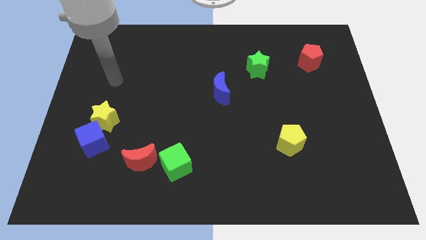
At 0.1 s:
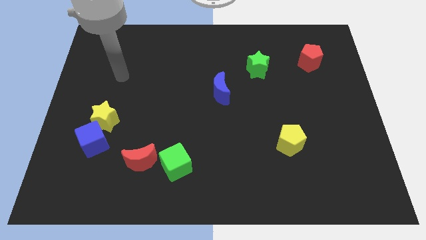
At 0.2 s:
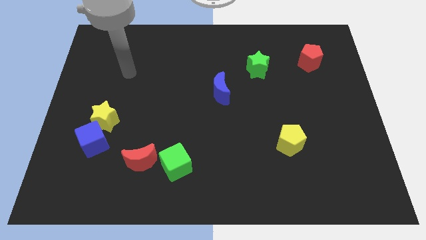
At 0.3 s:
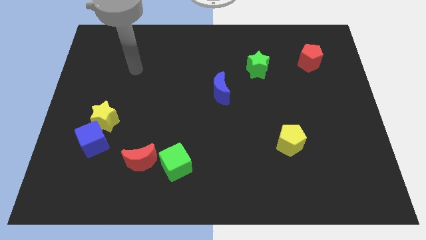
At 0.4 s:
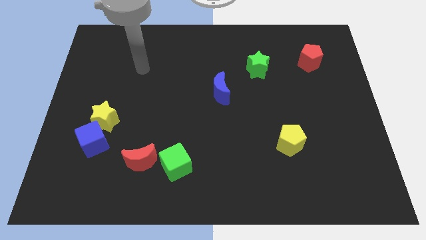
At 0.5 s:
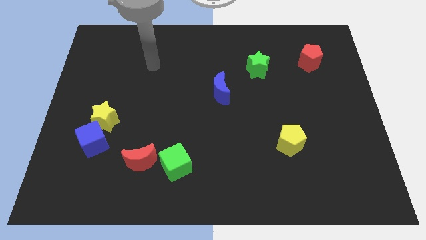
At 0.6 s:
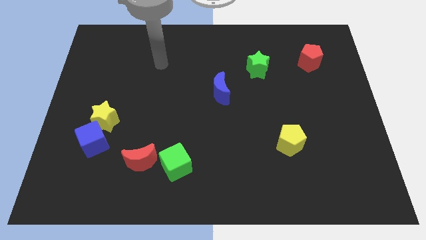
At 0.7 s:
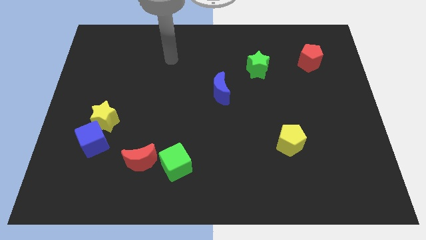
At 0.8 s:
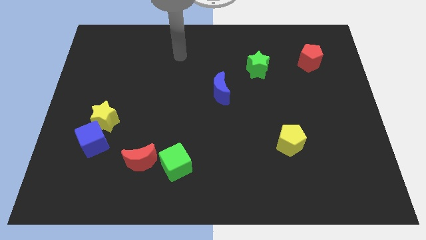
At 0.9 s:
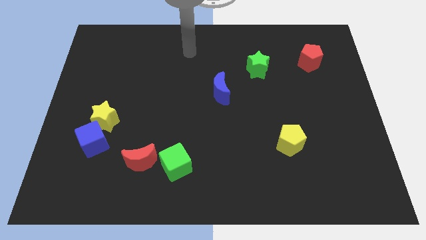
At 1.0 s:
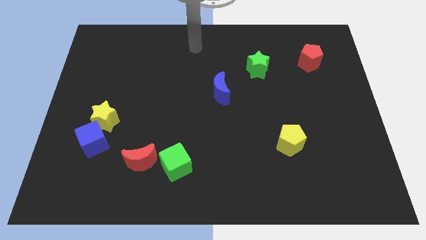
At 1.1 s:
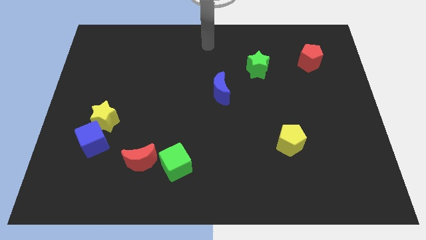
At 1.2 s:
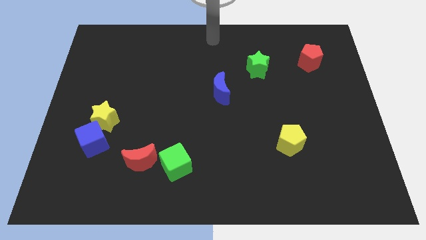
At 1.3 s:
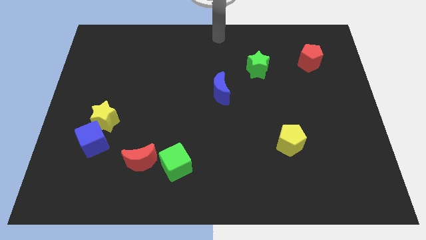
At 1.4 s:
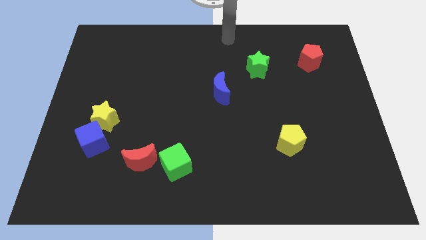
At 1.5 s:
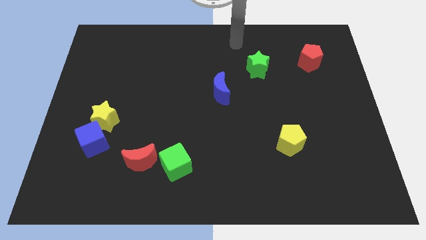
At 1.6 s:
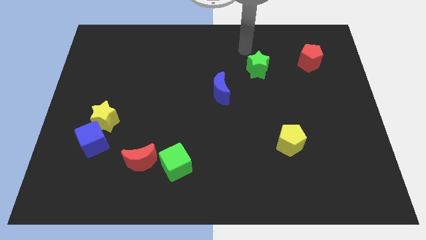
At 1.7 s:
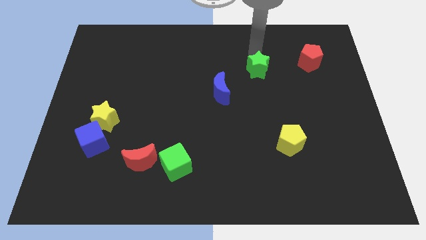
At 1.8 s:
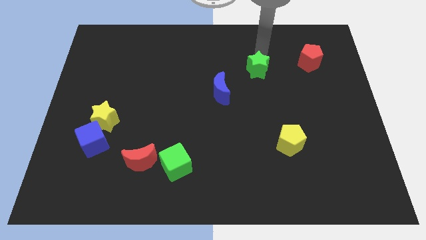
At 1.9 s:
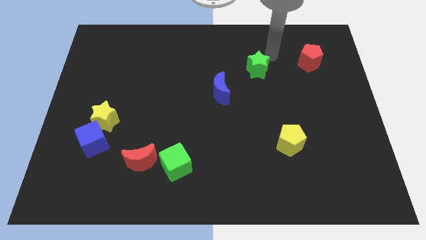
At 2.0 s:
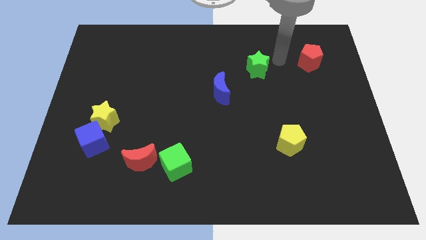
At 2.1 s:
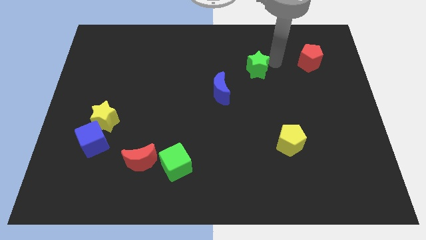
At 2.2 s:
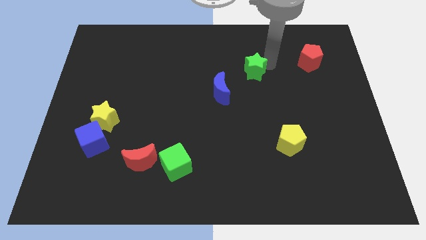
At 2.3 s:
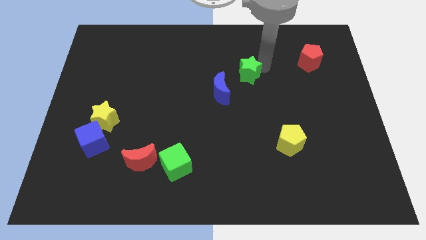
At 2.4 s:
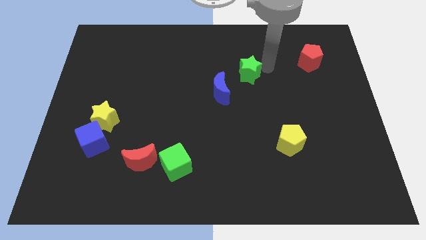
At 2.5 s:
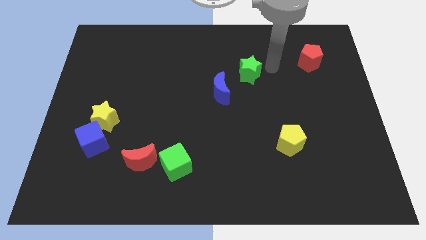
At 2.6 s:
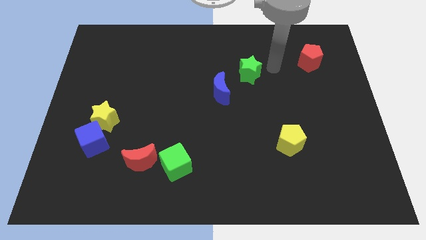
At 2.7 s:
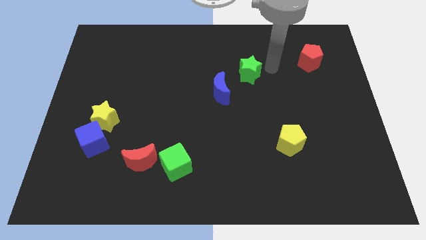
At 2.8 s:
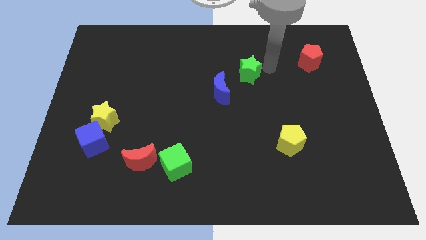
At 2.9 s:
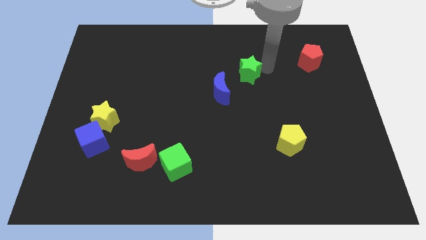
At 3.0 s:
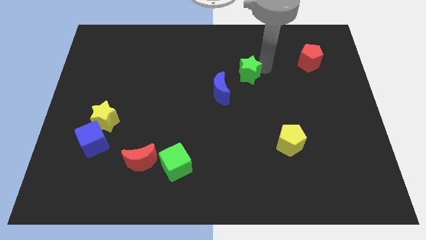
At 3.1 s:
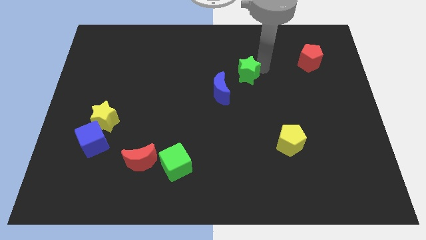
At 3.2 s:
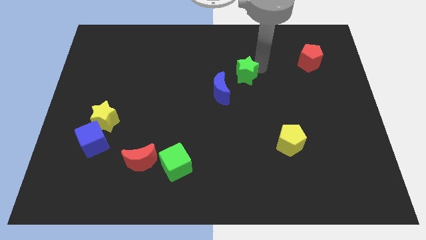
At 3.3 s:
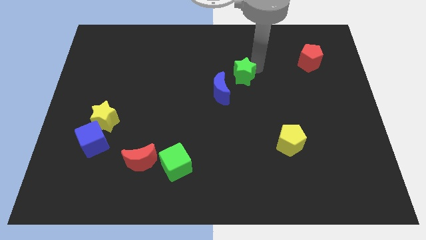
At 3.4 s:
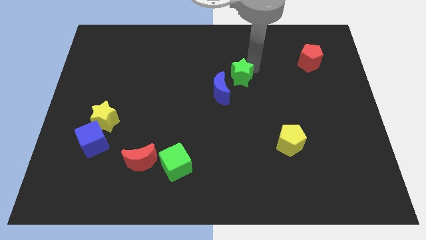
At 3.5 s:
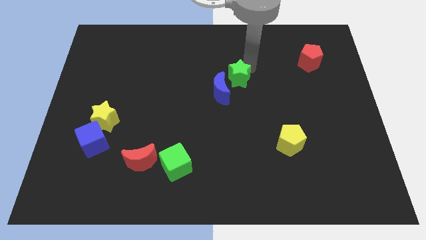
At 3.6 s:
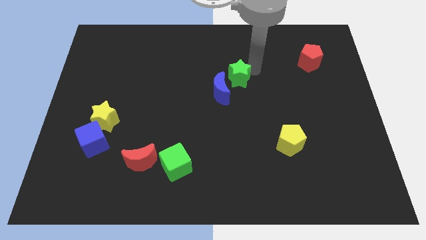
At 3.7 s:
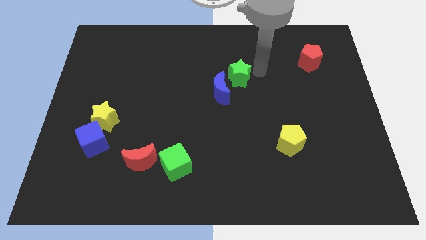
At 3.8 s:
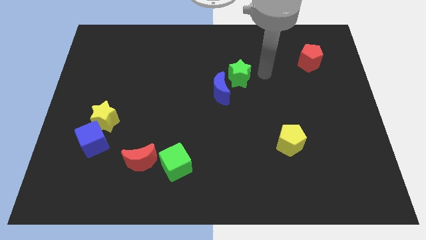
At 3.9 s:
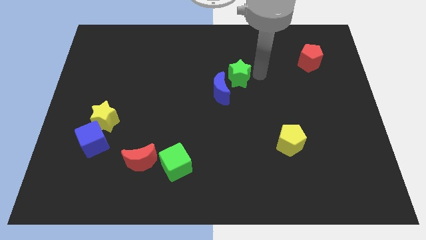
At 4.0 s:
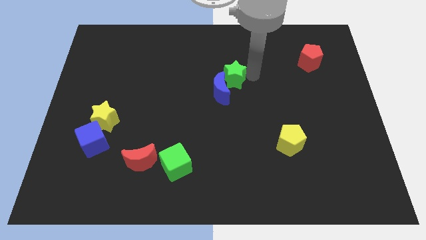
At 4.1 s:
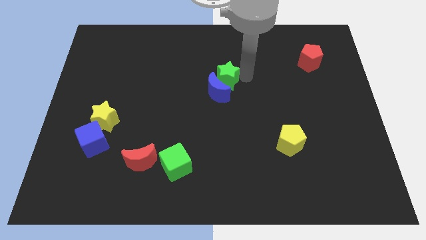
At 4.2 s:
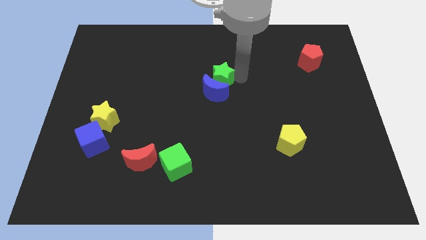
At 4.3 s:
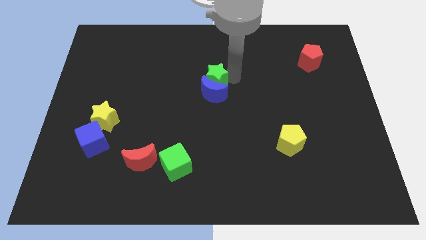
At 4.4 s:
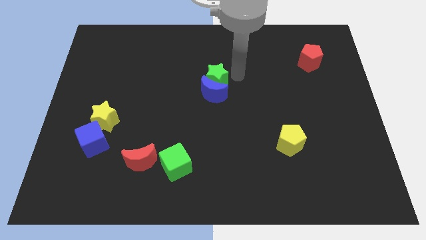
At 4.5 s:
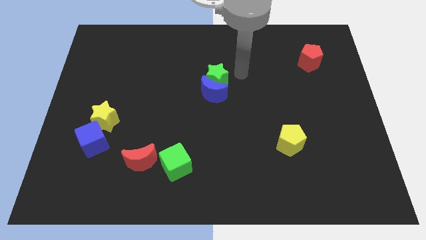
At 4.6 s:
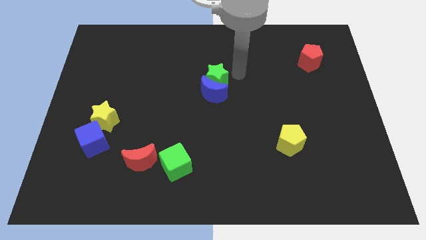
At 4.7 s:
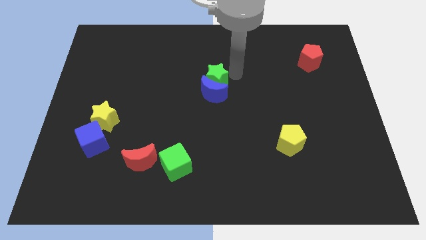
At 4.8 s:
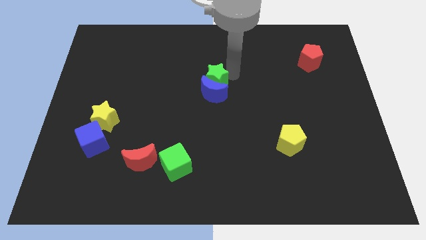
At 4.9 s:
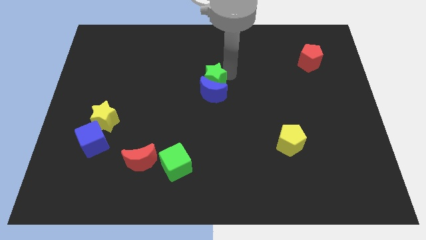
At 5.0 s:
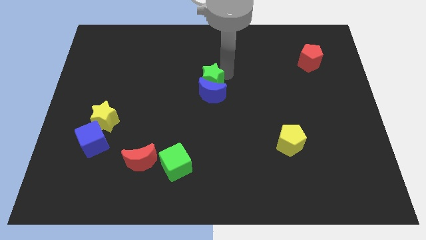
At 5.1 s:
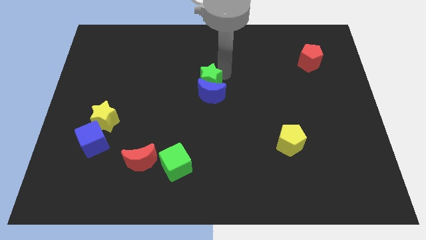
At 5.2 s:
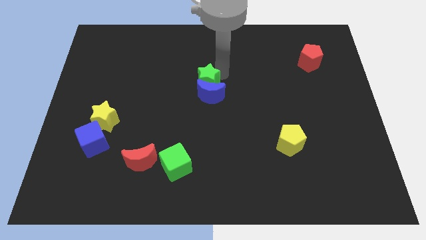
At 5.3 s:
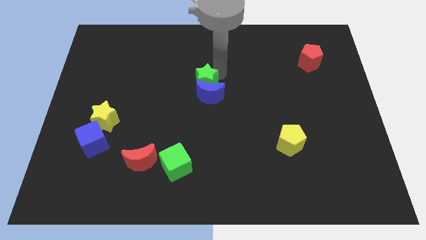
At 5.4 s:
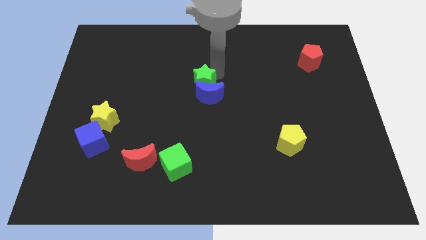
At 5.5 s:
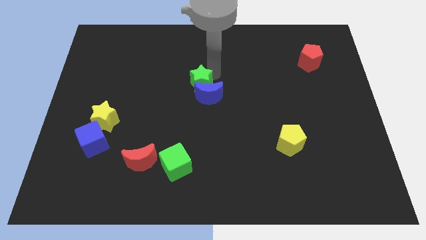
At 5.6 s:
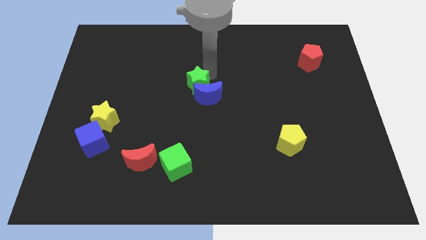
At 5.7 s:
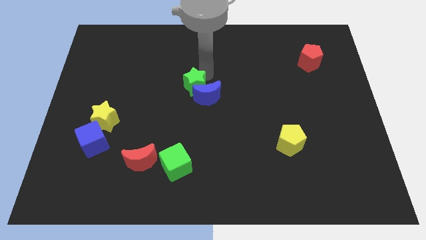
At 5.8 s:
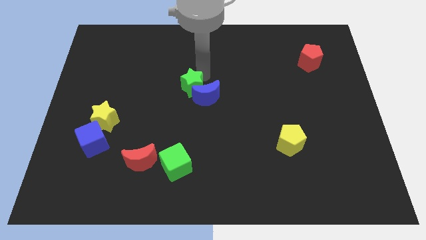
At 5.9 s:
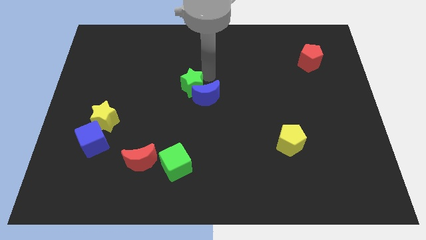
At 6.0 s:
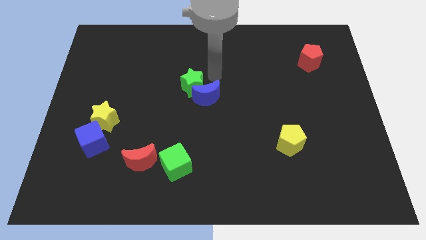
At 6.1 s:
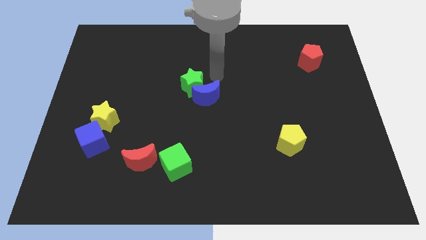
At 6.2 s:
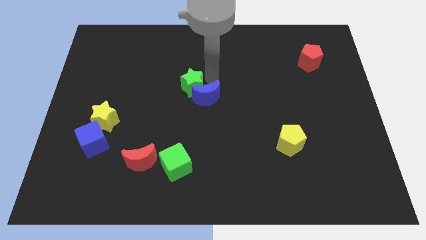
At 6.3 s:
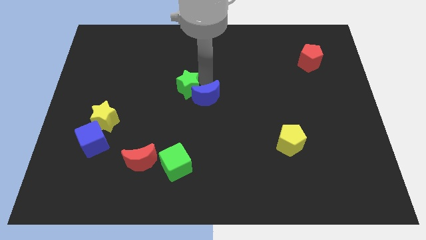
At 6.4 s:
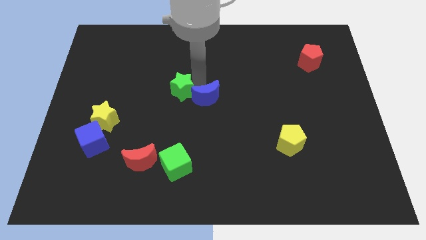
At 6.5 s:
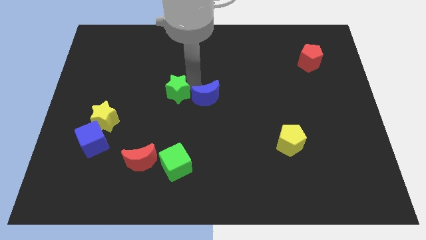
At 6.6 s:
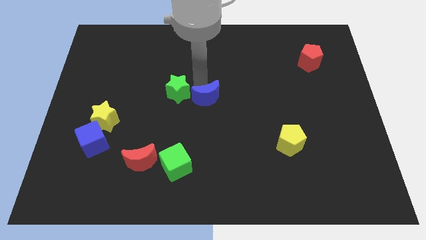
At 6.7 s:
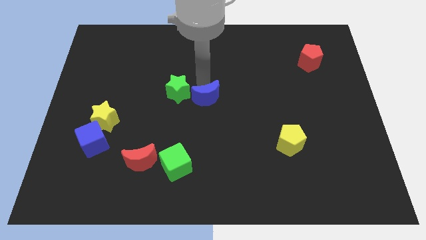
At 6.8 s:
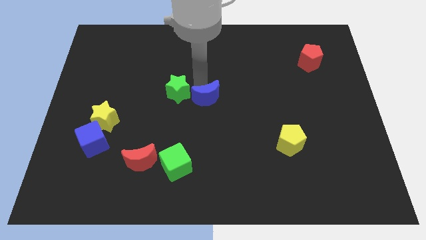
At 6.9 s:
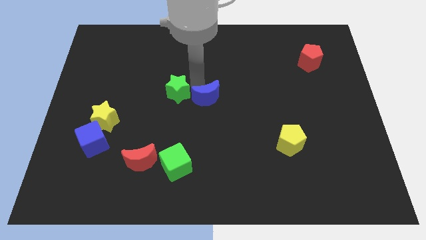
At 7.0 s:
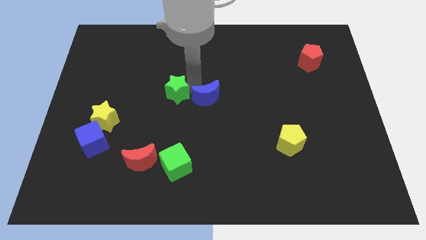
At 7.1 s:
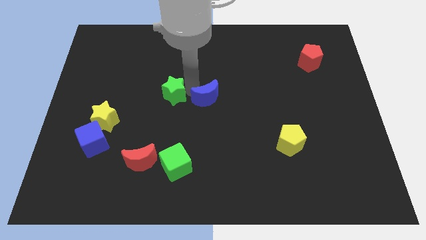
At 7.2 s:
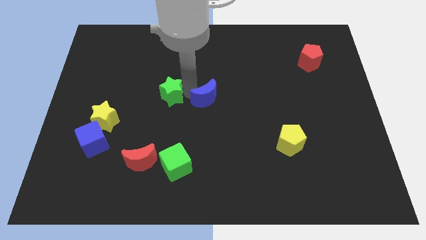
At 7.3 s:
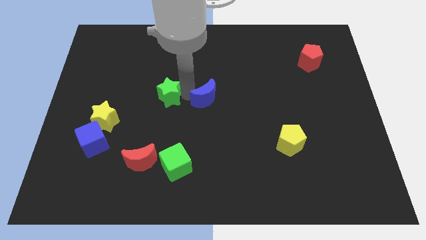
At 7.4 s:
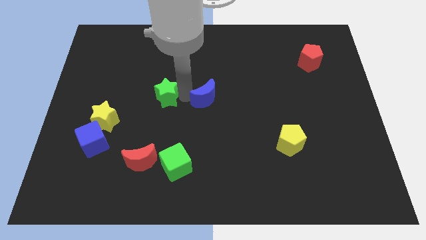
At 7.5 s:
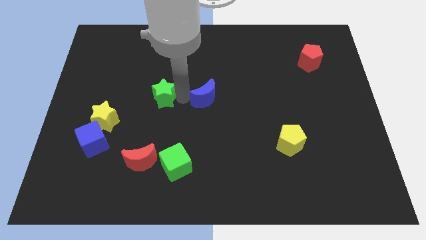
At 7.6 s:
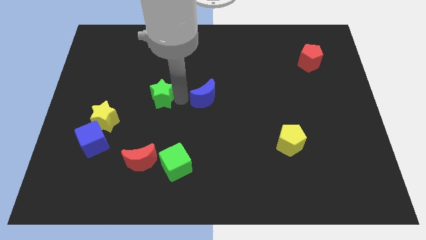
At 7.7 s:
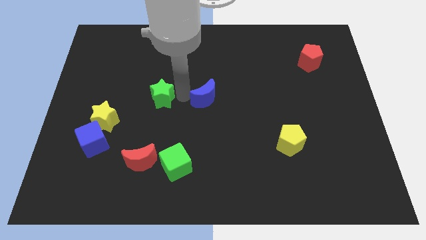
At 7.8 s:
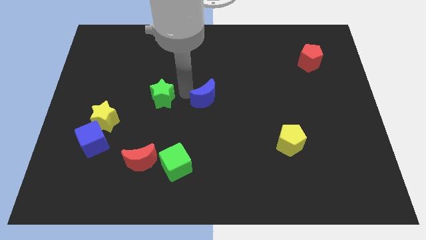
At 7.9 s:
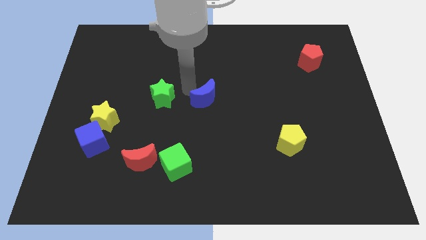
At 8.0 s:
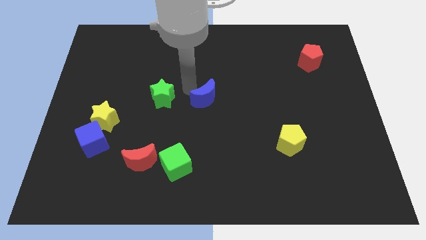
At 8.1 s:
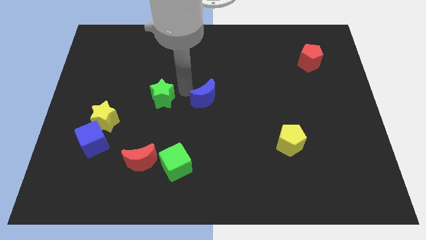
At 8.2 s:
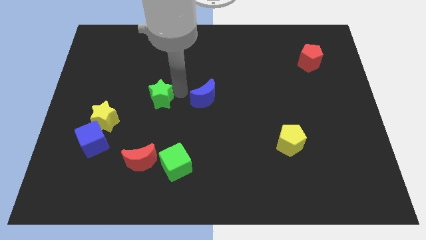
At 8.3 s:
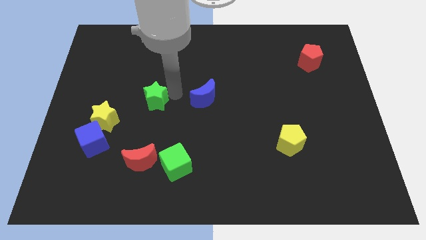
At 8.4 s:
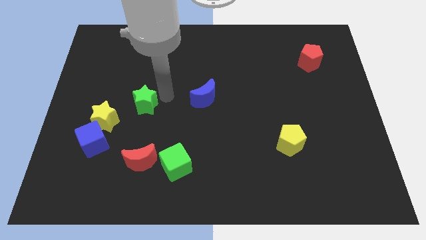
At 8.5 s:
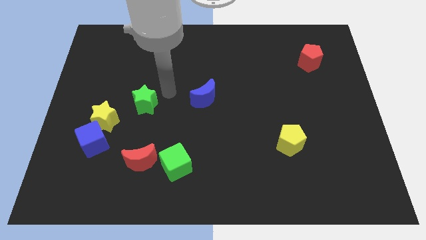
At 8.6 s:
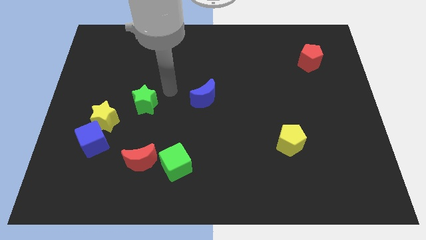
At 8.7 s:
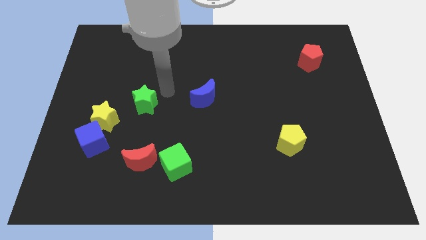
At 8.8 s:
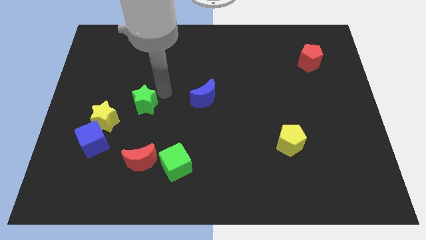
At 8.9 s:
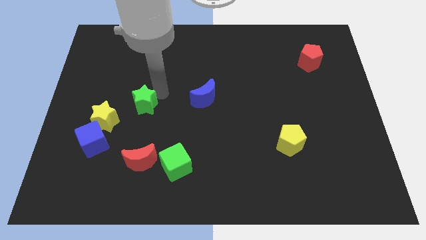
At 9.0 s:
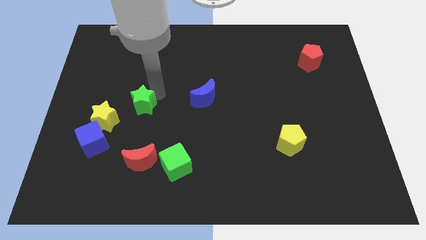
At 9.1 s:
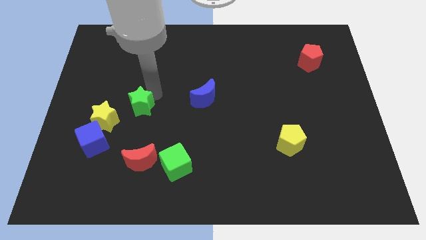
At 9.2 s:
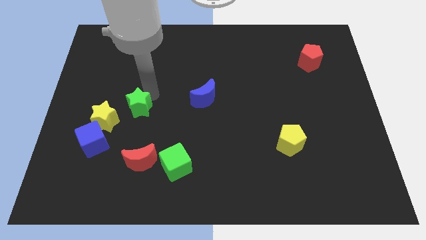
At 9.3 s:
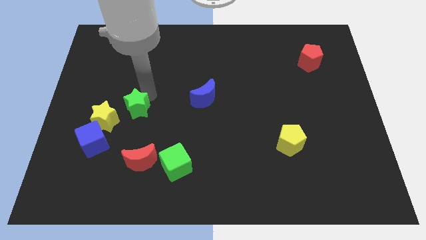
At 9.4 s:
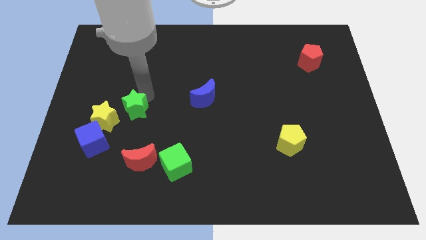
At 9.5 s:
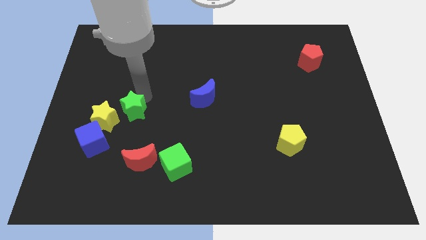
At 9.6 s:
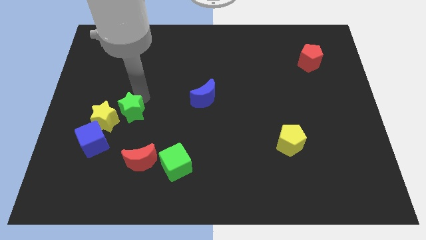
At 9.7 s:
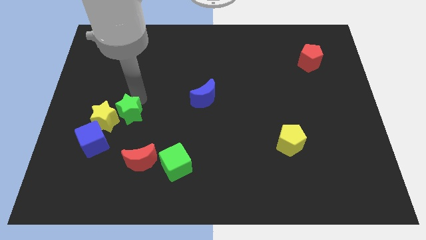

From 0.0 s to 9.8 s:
put the green star towards the yellow star
